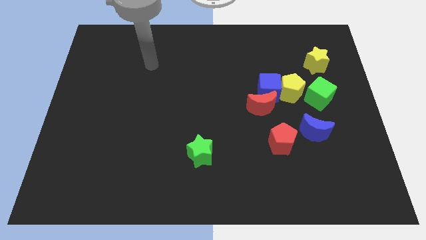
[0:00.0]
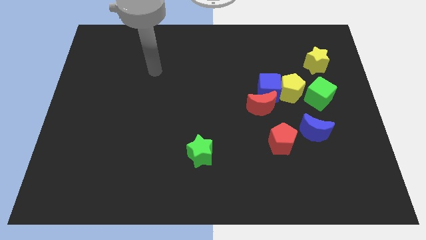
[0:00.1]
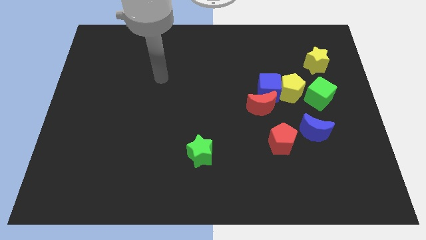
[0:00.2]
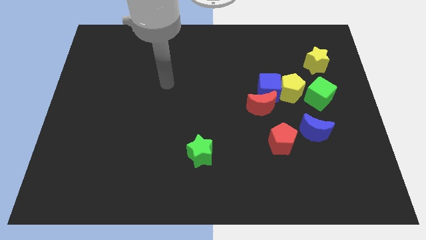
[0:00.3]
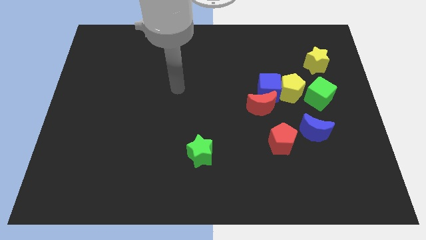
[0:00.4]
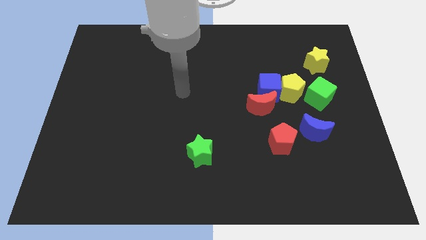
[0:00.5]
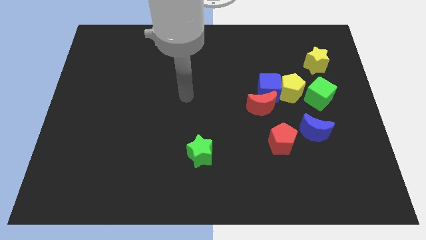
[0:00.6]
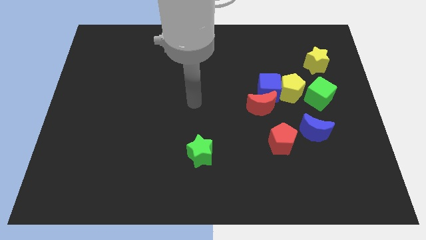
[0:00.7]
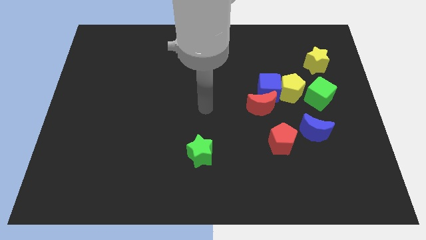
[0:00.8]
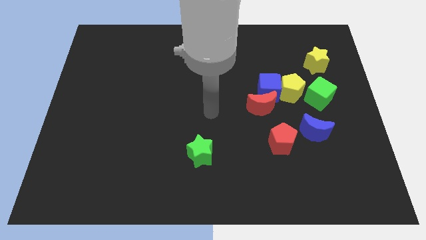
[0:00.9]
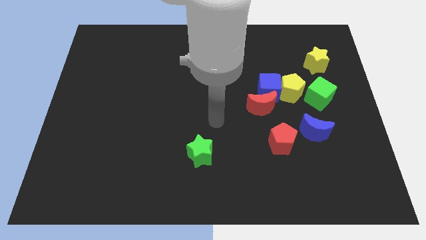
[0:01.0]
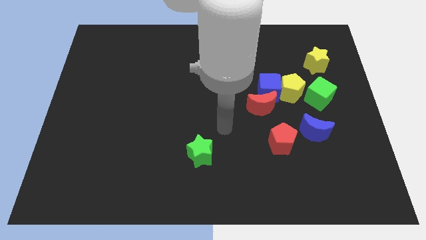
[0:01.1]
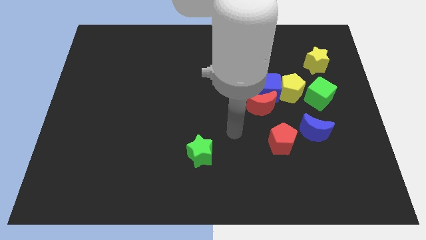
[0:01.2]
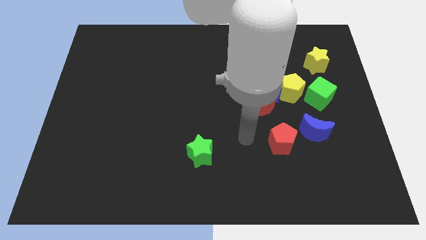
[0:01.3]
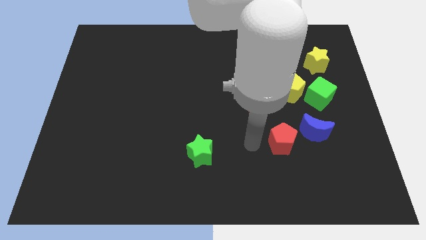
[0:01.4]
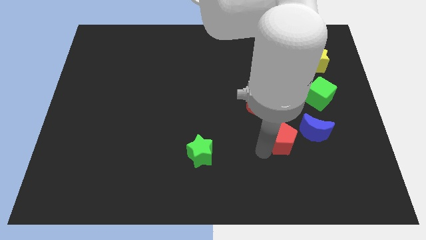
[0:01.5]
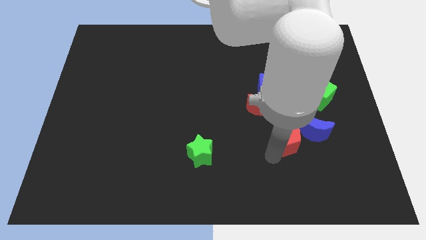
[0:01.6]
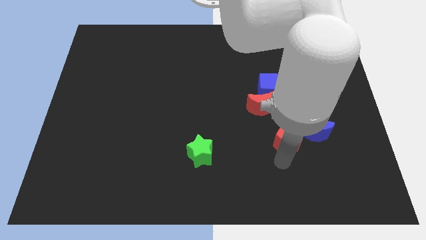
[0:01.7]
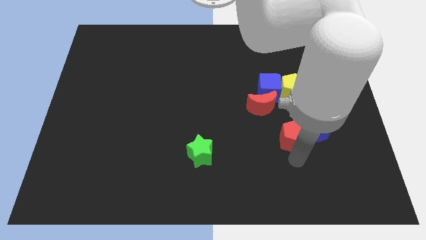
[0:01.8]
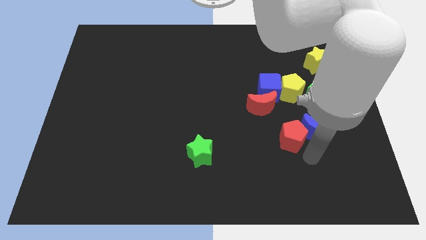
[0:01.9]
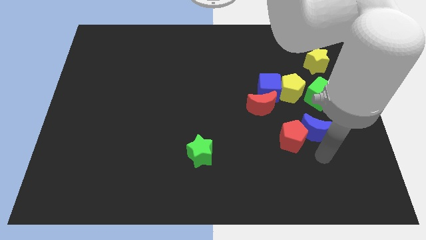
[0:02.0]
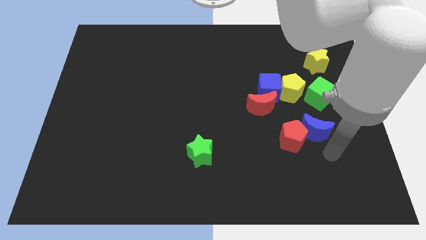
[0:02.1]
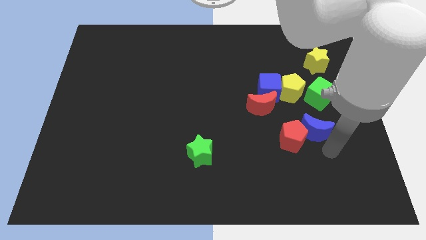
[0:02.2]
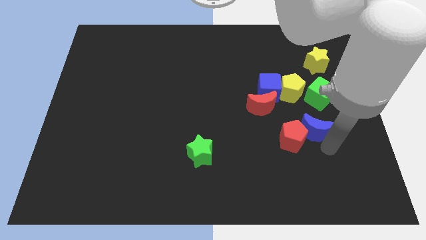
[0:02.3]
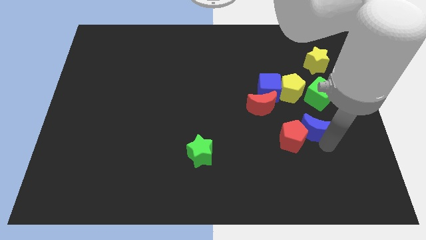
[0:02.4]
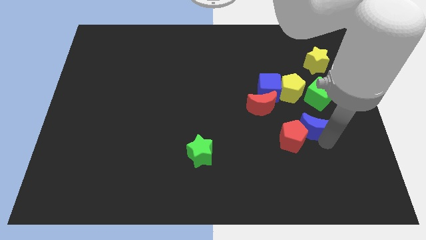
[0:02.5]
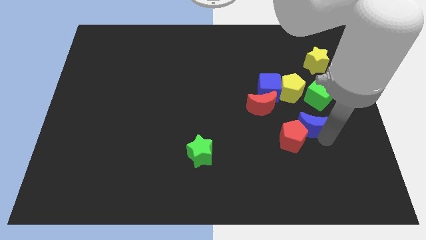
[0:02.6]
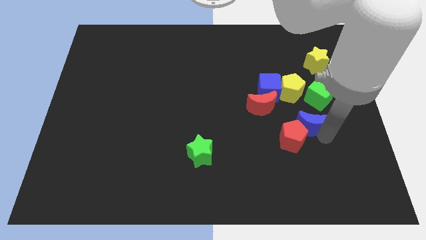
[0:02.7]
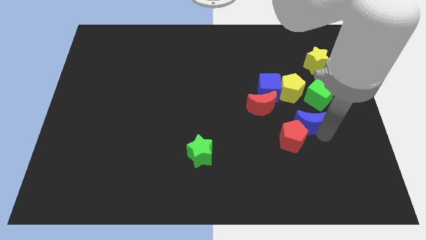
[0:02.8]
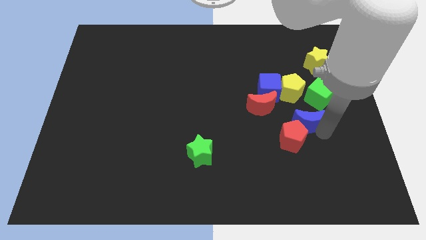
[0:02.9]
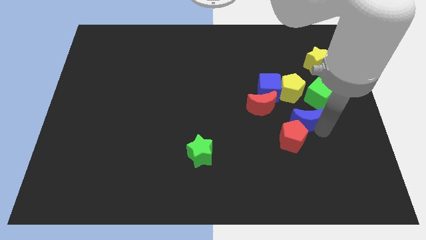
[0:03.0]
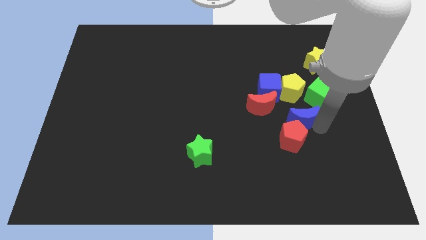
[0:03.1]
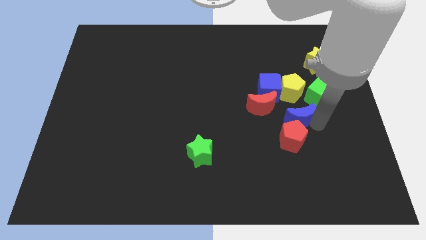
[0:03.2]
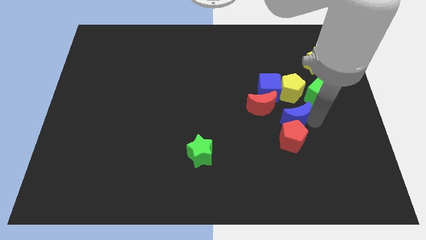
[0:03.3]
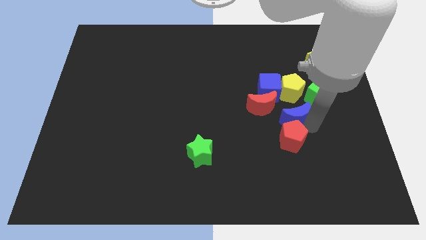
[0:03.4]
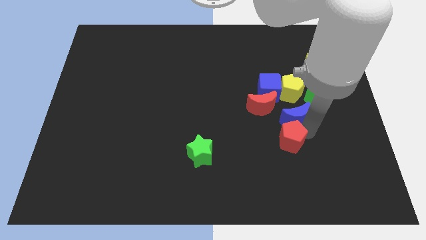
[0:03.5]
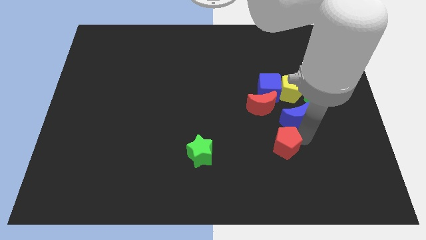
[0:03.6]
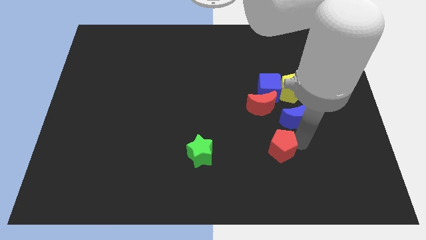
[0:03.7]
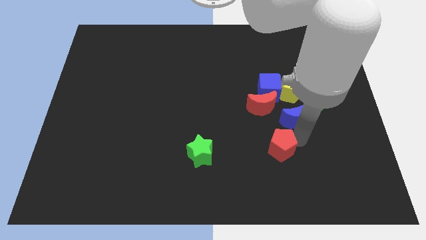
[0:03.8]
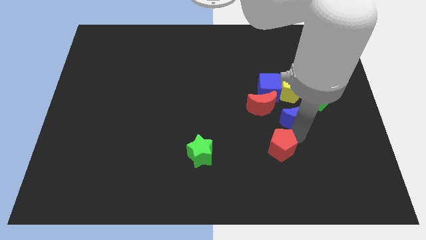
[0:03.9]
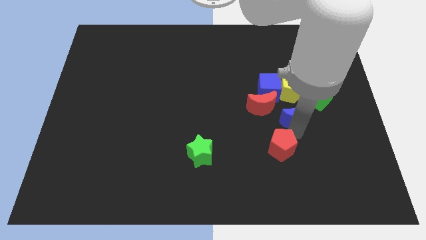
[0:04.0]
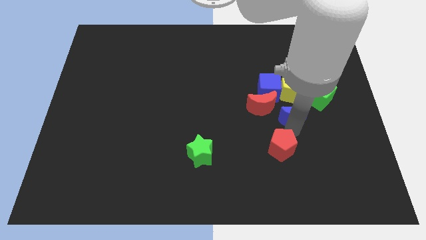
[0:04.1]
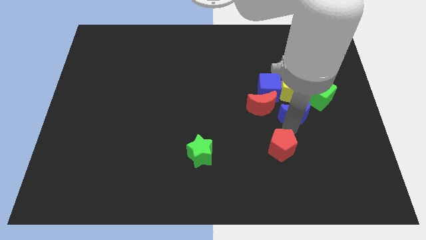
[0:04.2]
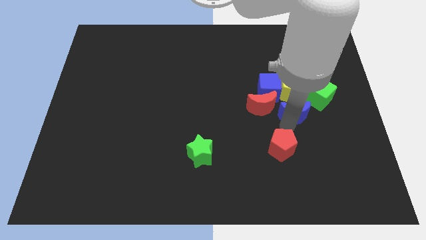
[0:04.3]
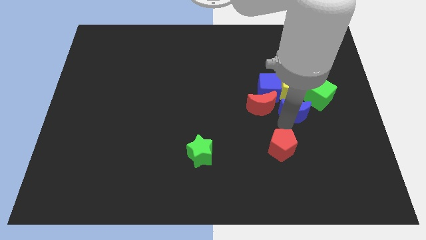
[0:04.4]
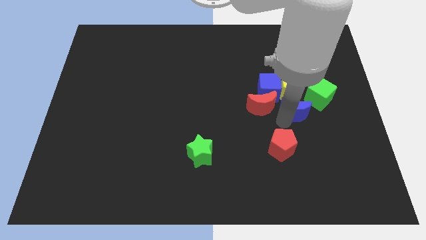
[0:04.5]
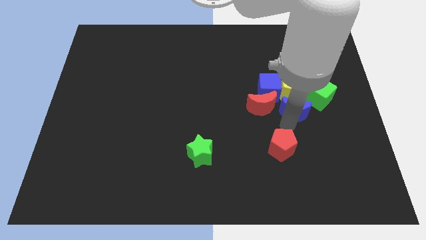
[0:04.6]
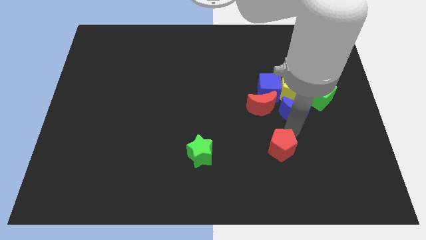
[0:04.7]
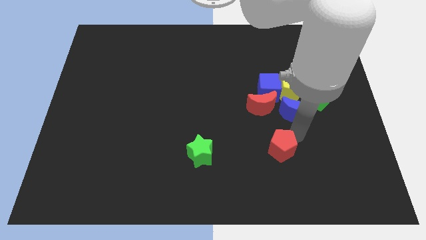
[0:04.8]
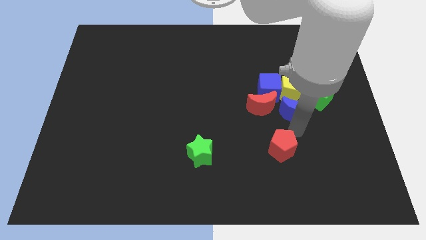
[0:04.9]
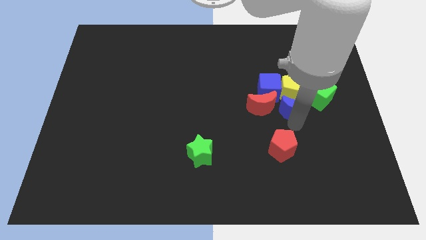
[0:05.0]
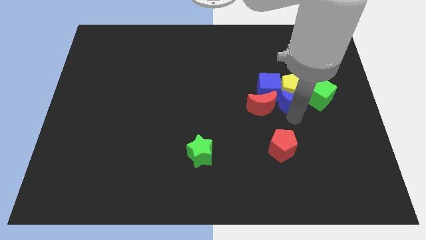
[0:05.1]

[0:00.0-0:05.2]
push the blue moon towards the yellow pentagon

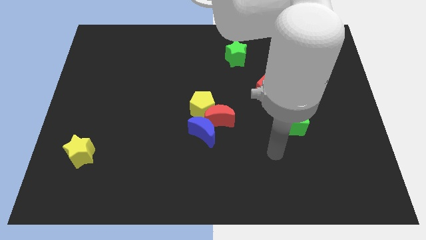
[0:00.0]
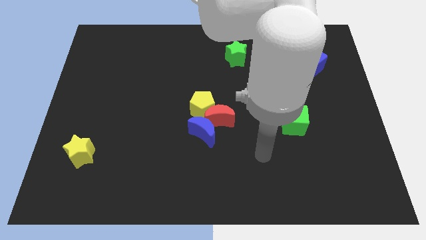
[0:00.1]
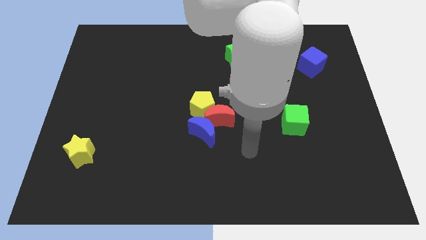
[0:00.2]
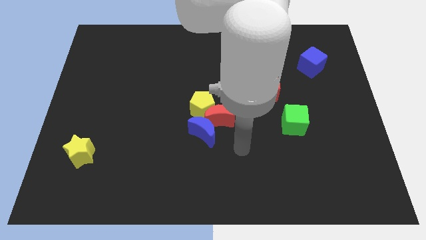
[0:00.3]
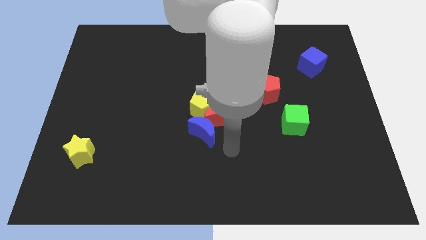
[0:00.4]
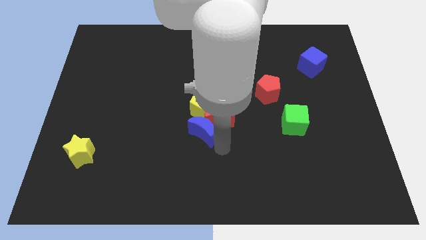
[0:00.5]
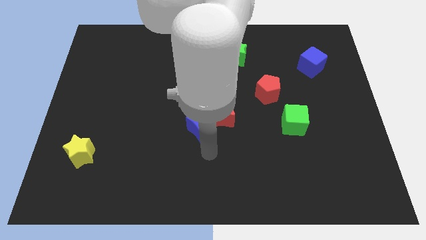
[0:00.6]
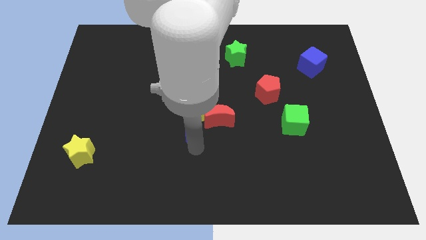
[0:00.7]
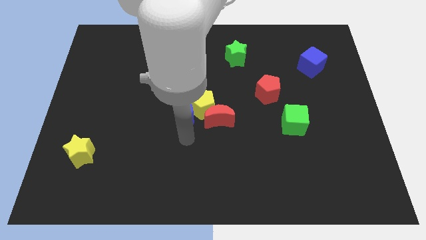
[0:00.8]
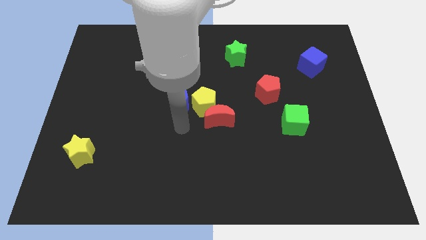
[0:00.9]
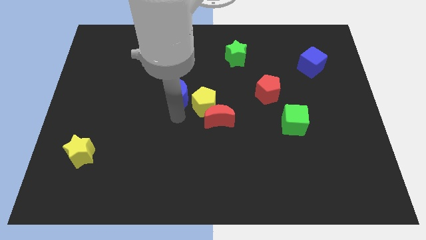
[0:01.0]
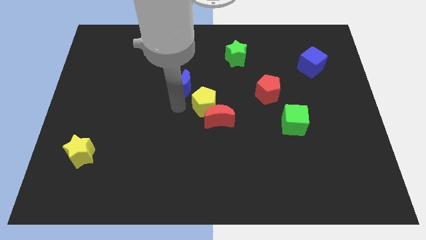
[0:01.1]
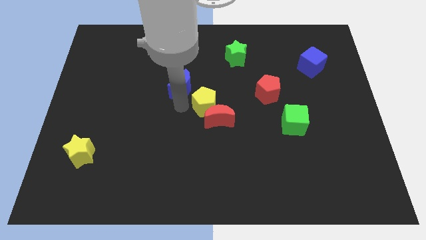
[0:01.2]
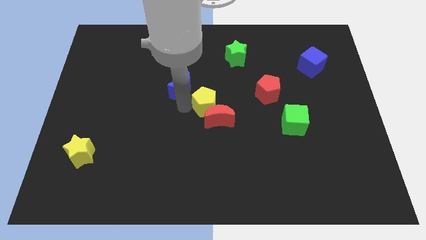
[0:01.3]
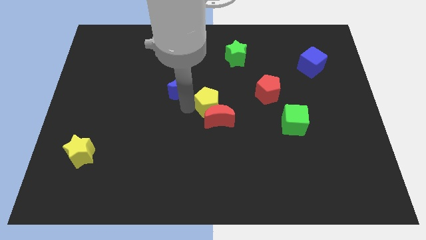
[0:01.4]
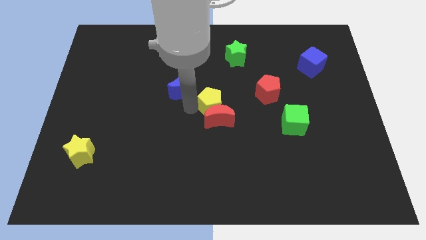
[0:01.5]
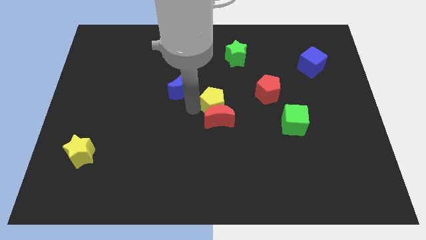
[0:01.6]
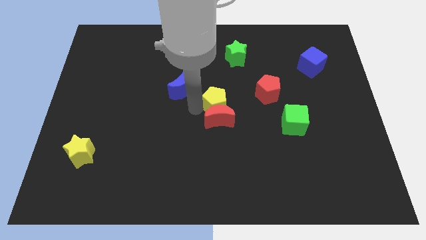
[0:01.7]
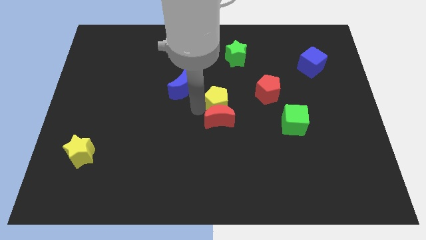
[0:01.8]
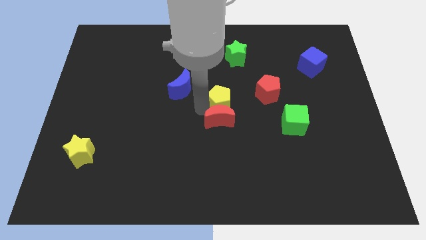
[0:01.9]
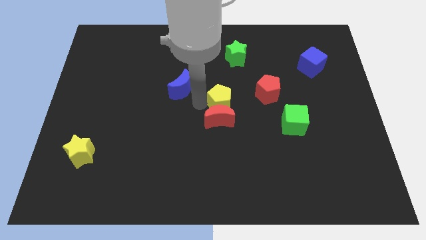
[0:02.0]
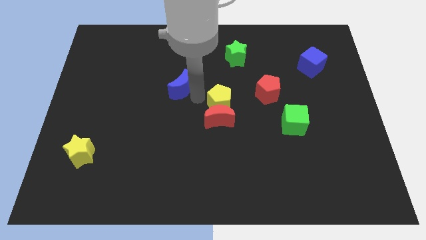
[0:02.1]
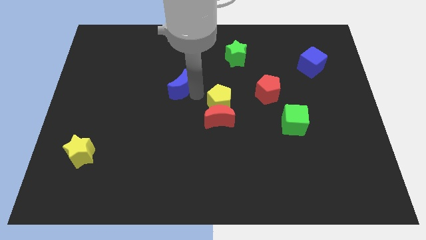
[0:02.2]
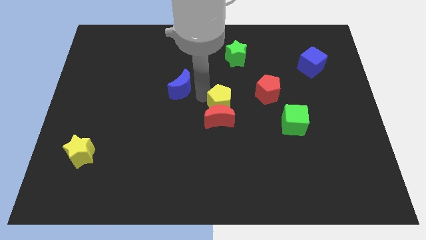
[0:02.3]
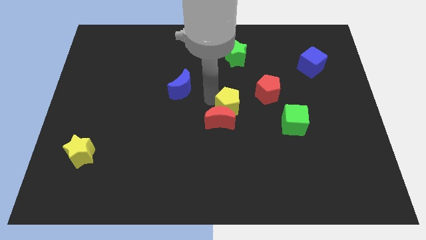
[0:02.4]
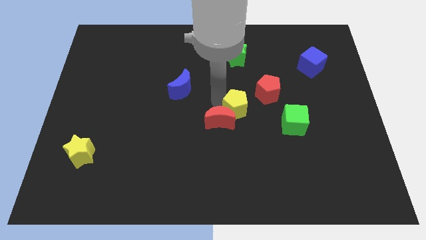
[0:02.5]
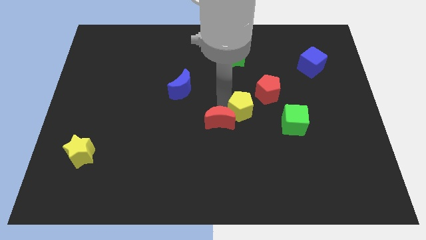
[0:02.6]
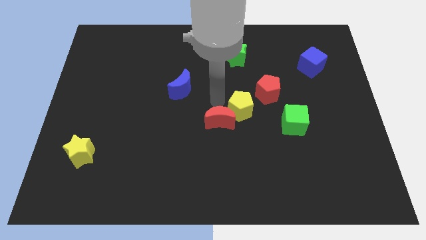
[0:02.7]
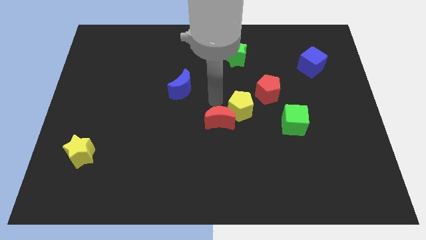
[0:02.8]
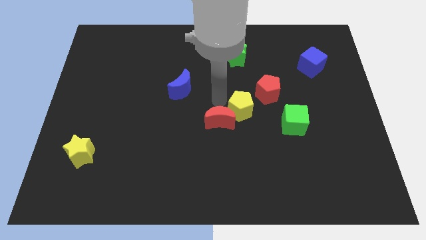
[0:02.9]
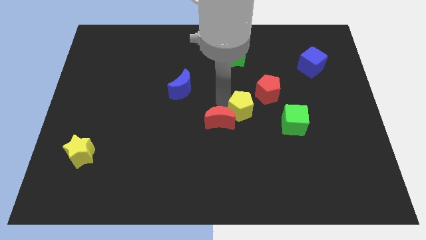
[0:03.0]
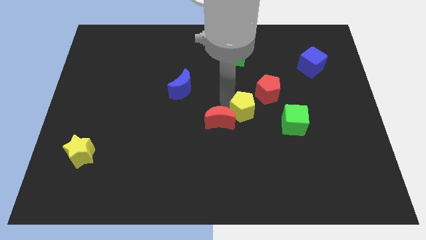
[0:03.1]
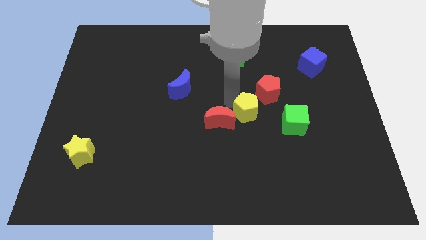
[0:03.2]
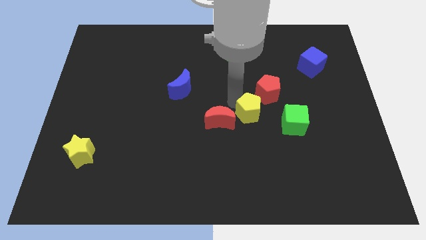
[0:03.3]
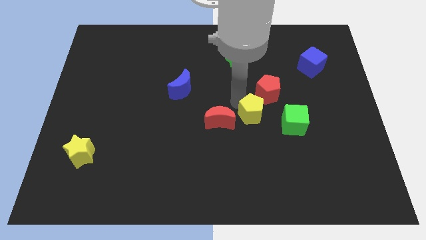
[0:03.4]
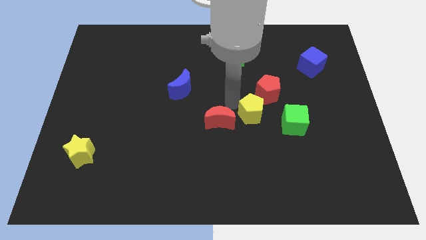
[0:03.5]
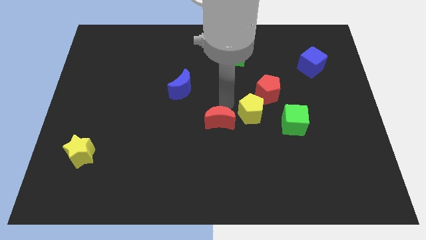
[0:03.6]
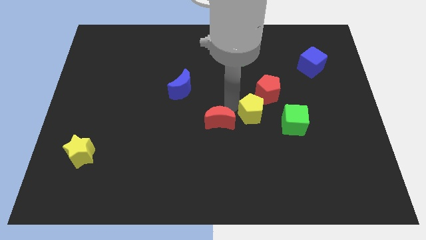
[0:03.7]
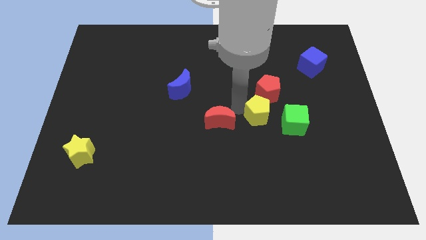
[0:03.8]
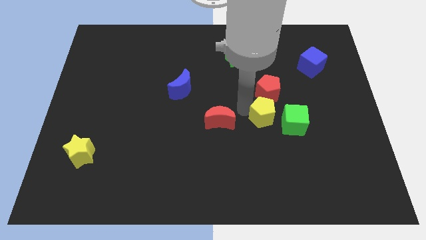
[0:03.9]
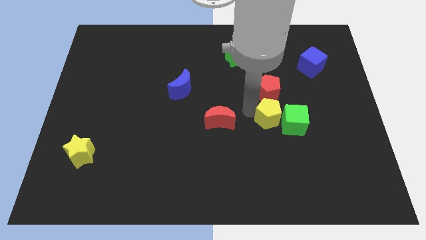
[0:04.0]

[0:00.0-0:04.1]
move the yellow pentagon towards the green cube
